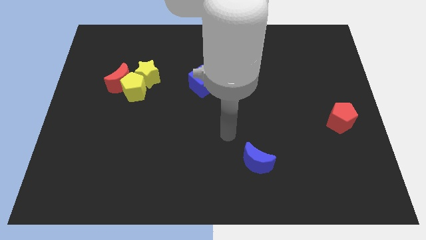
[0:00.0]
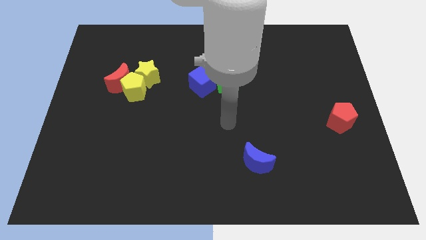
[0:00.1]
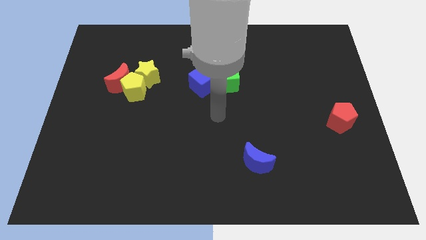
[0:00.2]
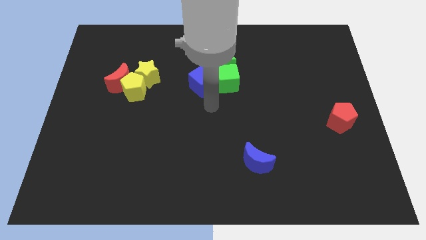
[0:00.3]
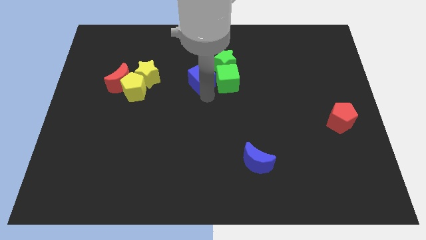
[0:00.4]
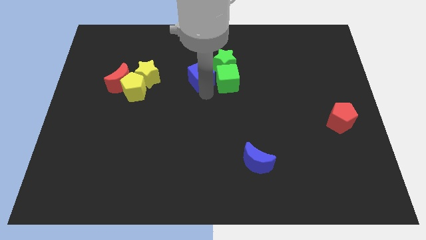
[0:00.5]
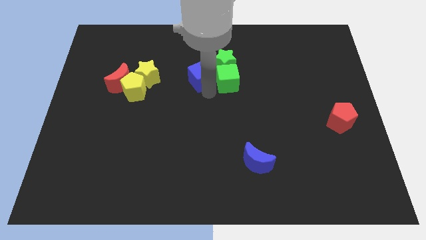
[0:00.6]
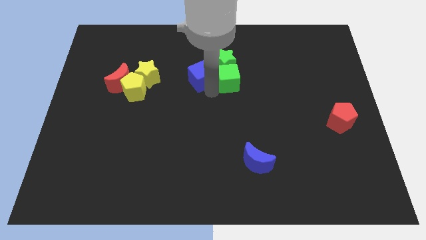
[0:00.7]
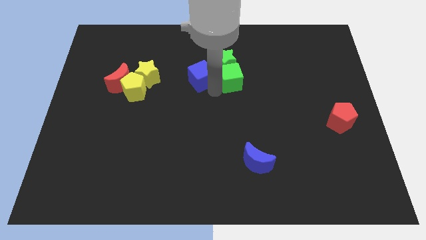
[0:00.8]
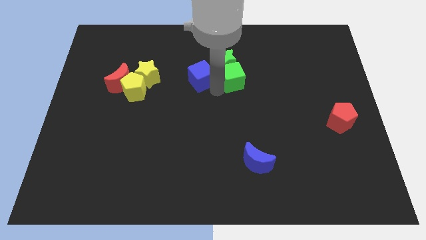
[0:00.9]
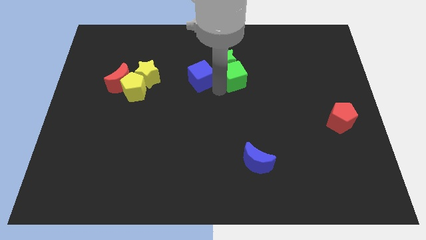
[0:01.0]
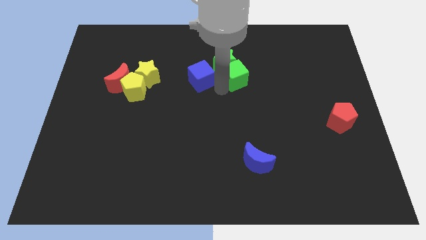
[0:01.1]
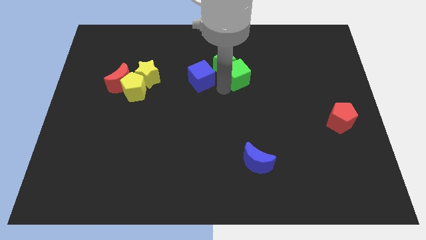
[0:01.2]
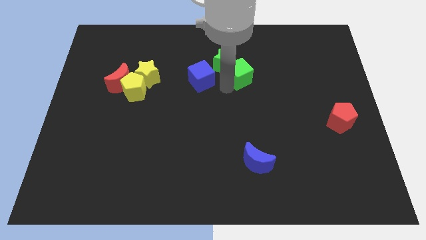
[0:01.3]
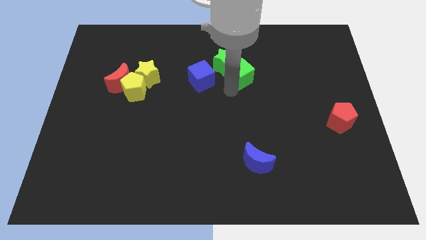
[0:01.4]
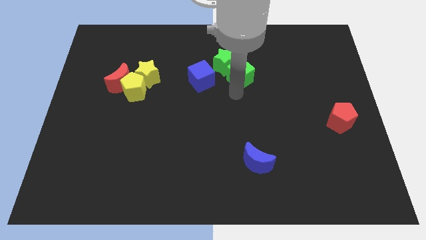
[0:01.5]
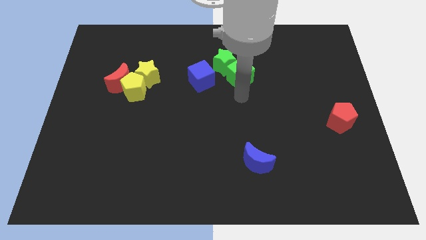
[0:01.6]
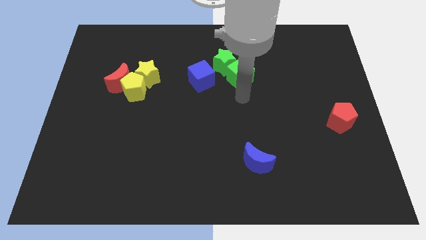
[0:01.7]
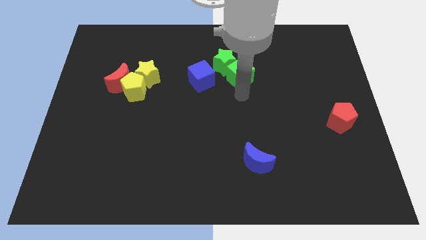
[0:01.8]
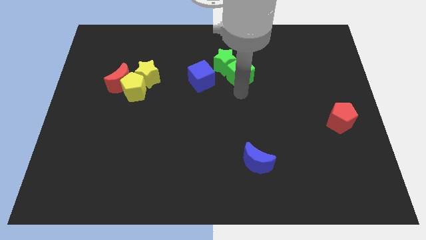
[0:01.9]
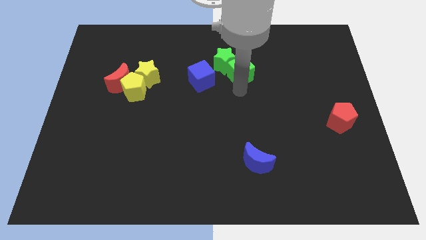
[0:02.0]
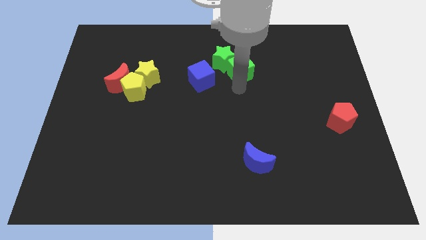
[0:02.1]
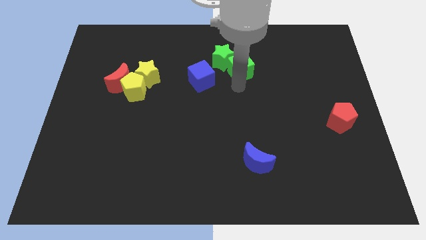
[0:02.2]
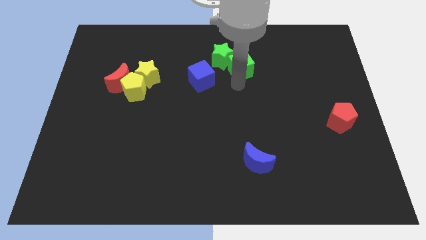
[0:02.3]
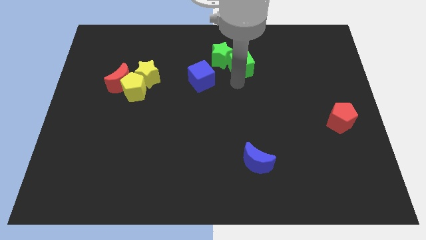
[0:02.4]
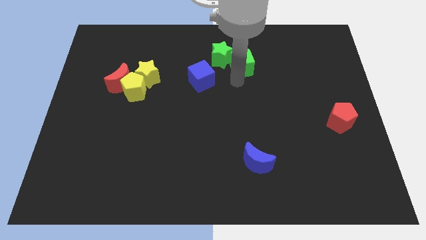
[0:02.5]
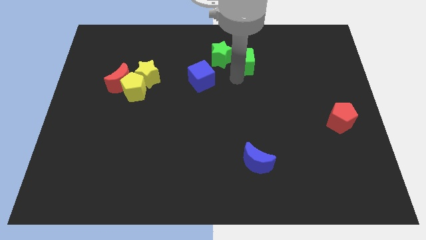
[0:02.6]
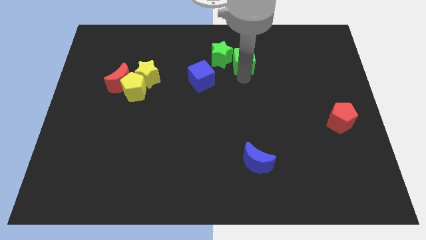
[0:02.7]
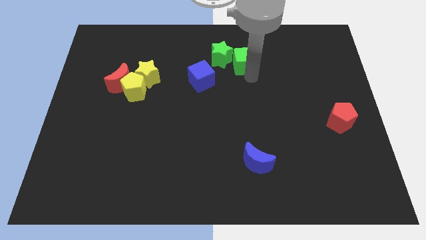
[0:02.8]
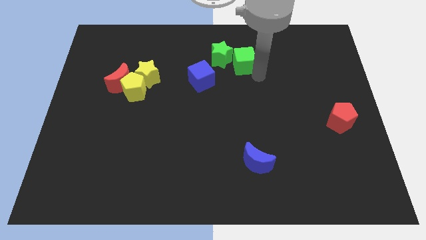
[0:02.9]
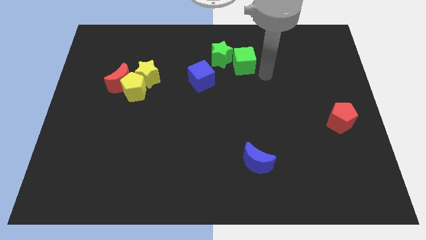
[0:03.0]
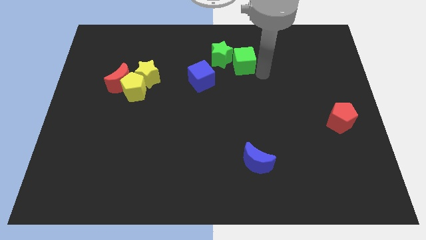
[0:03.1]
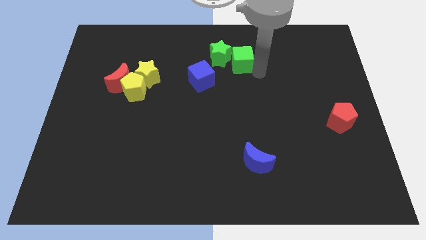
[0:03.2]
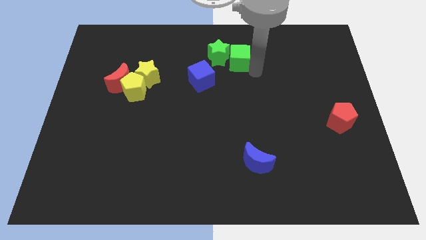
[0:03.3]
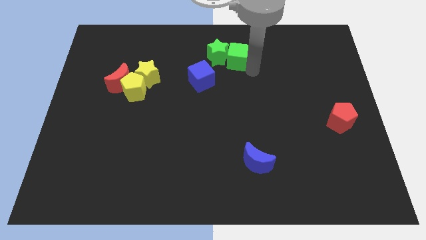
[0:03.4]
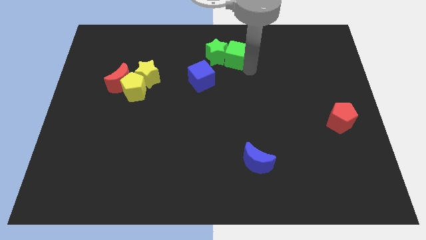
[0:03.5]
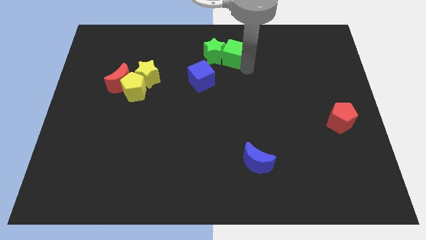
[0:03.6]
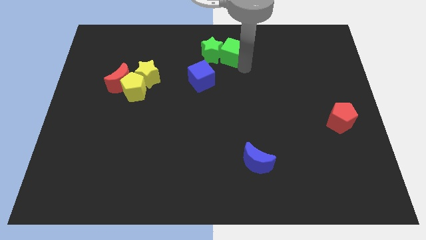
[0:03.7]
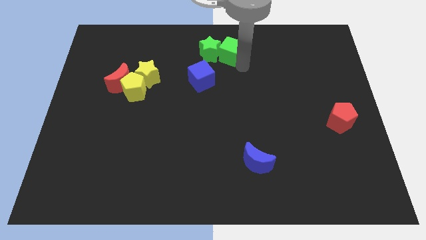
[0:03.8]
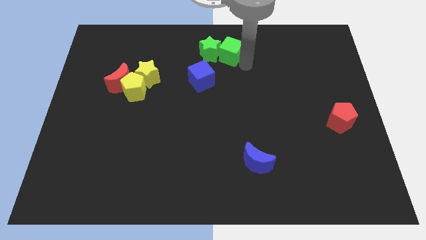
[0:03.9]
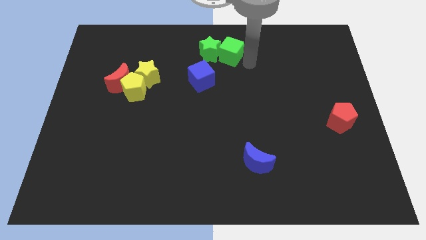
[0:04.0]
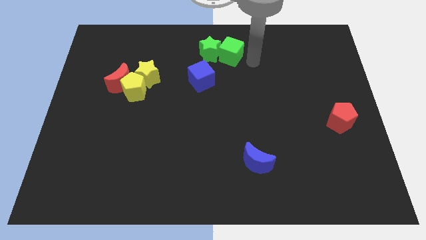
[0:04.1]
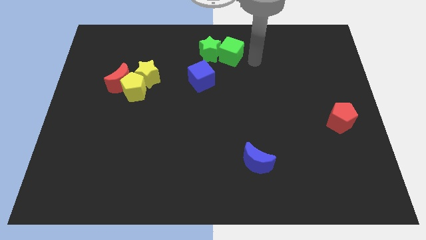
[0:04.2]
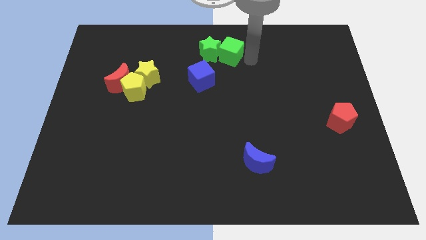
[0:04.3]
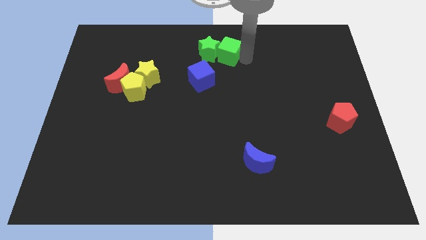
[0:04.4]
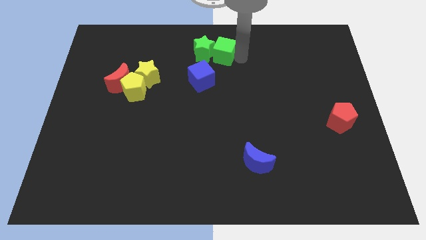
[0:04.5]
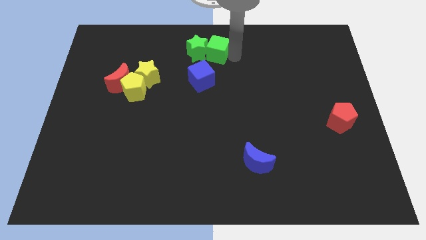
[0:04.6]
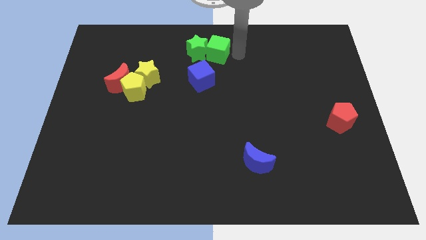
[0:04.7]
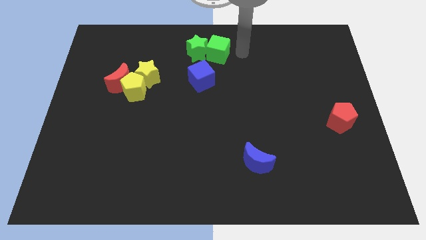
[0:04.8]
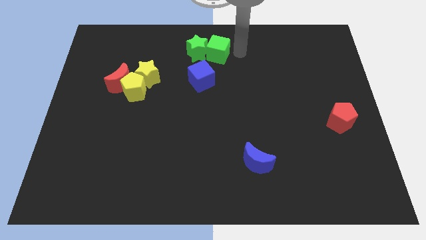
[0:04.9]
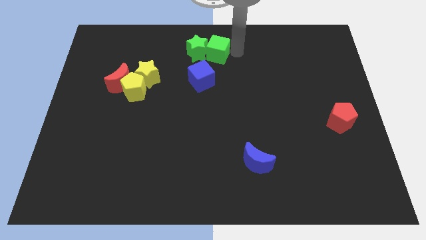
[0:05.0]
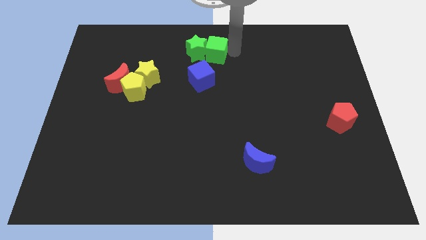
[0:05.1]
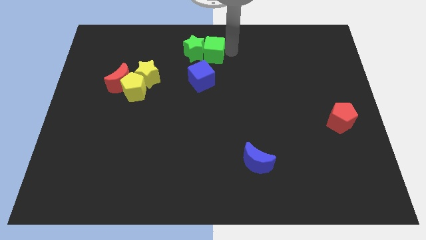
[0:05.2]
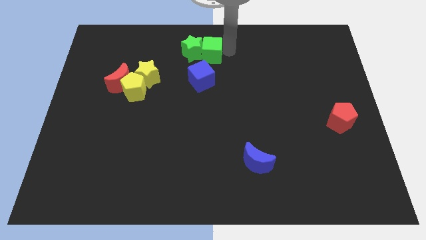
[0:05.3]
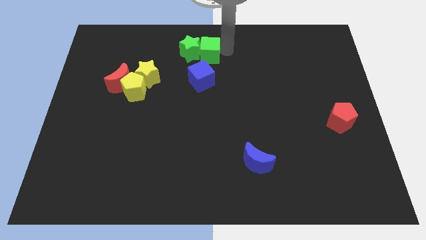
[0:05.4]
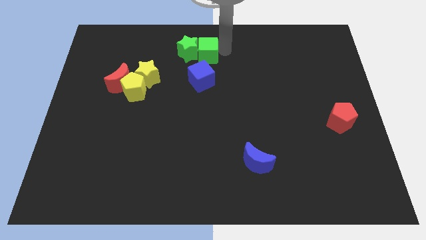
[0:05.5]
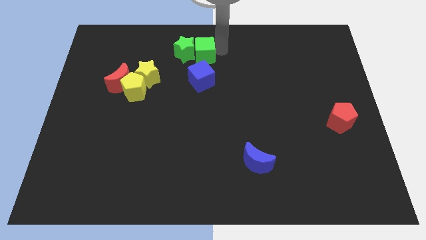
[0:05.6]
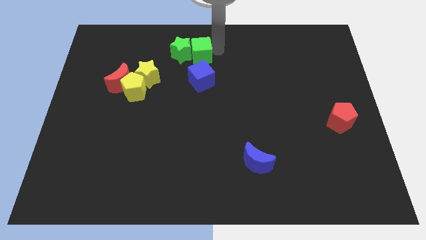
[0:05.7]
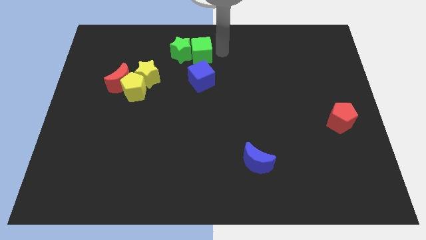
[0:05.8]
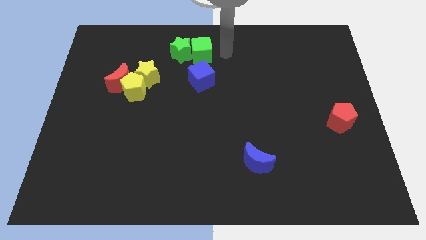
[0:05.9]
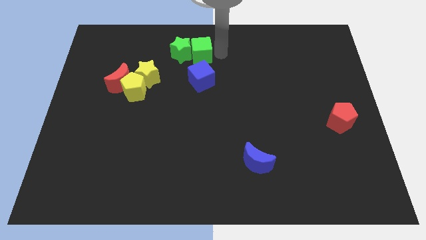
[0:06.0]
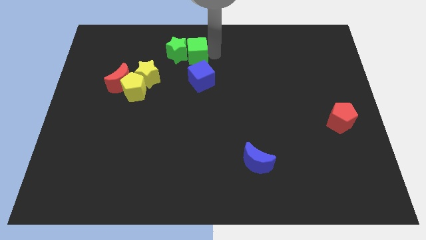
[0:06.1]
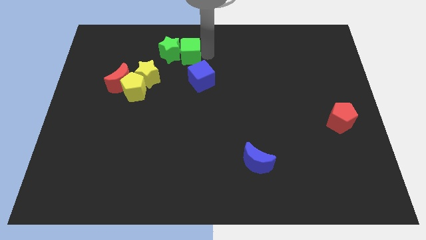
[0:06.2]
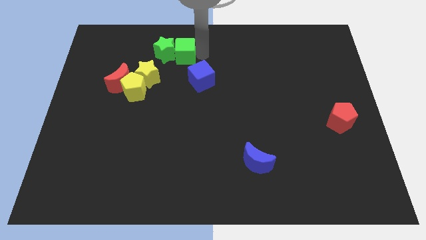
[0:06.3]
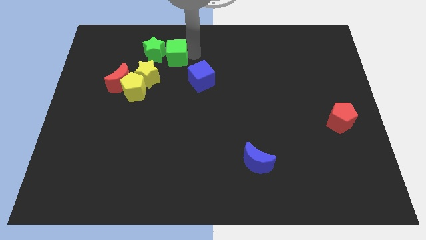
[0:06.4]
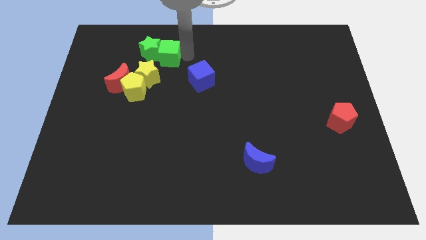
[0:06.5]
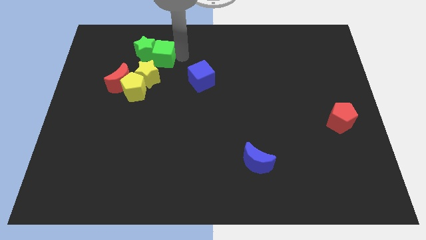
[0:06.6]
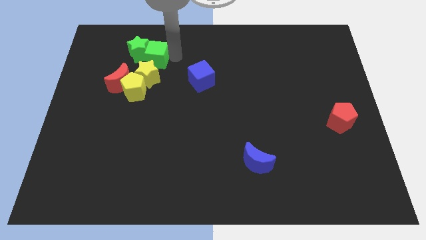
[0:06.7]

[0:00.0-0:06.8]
slide the green cube above the yellow pentagon
